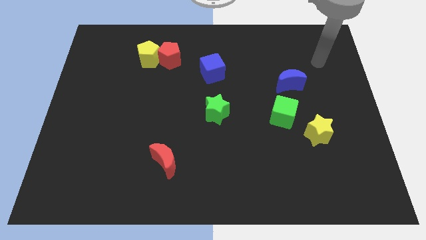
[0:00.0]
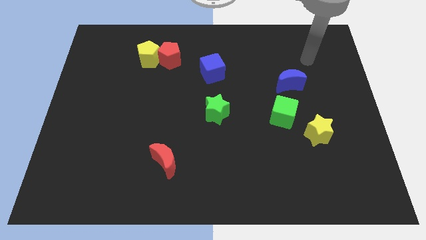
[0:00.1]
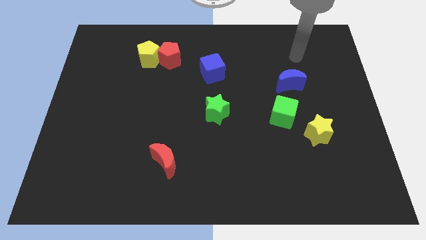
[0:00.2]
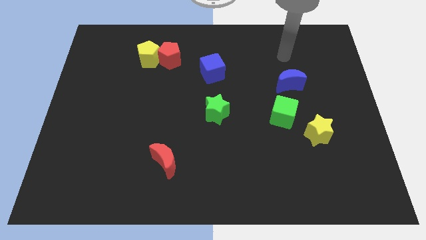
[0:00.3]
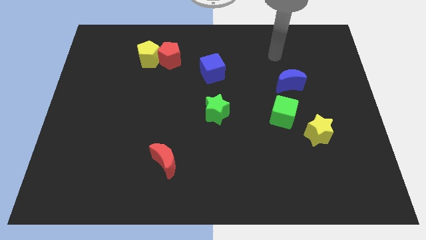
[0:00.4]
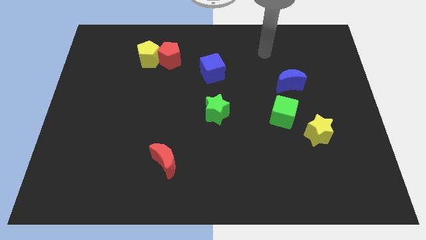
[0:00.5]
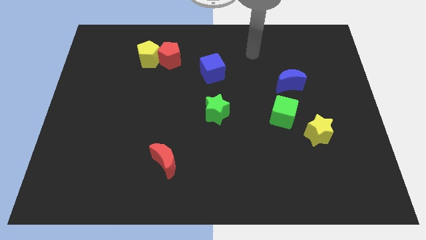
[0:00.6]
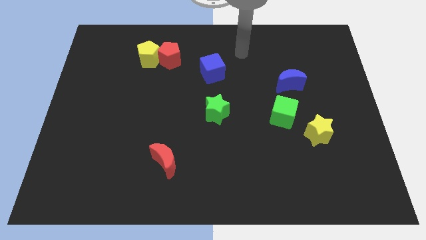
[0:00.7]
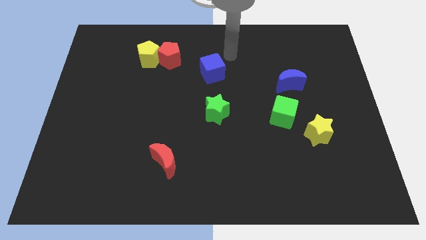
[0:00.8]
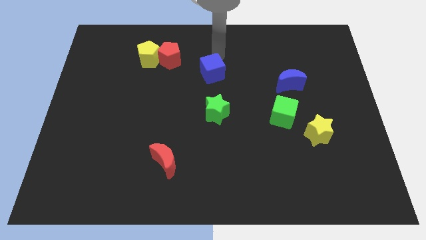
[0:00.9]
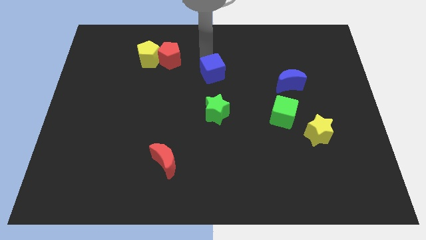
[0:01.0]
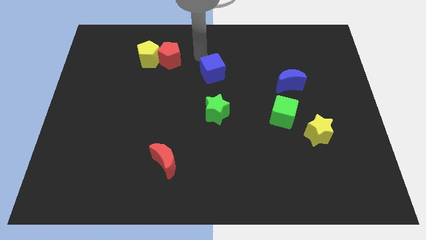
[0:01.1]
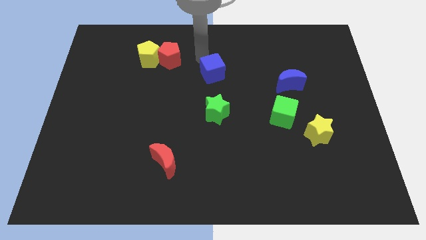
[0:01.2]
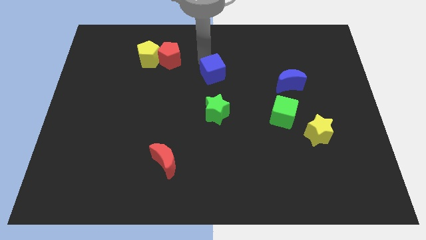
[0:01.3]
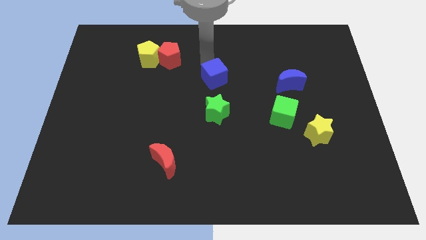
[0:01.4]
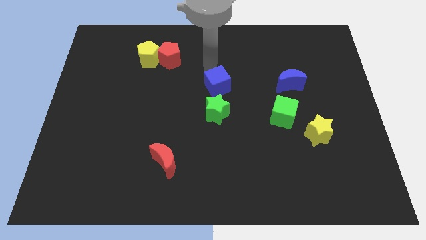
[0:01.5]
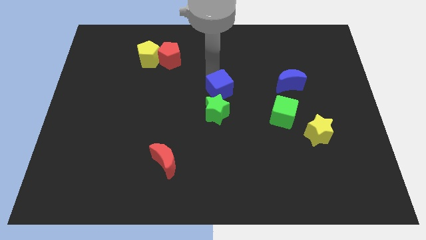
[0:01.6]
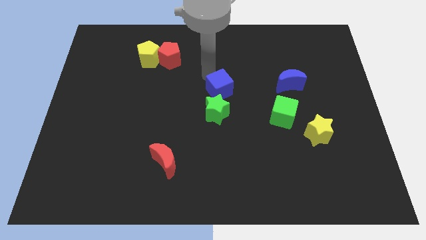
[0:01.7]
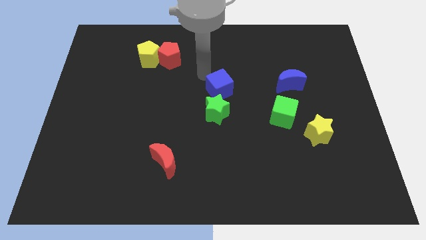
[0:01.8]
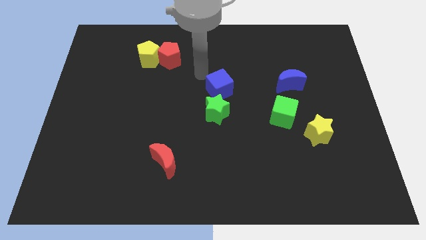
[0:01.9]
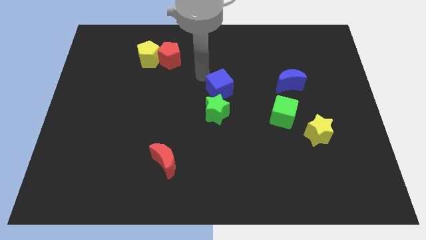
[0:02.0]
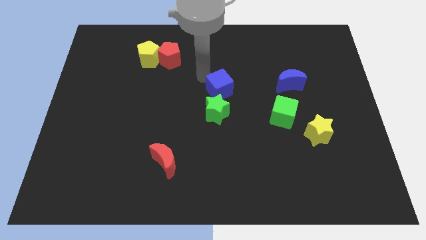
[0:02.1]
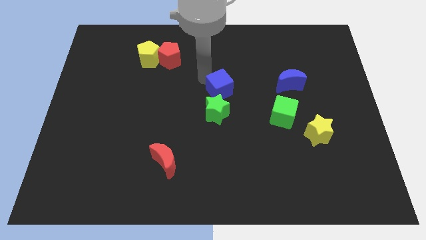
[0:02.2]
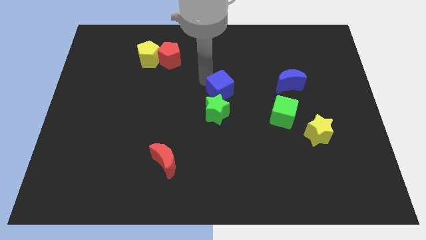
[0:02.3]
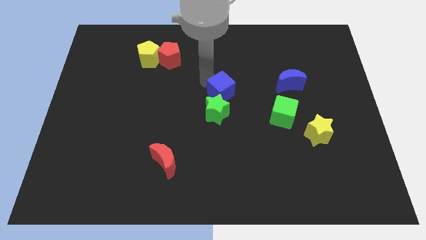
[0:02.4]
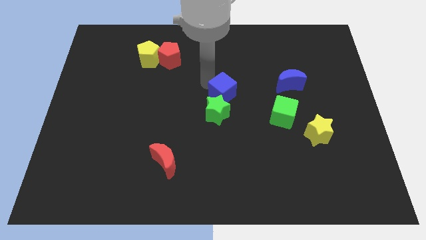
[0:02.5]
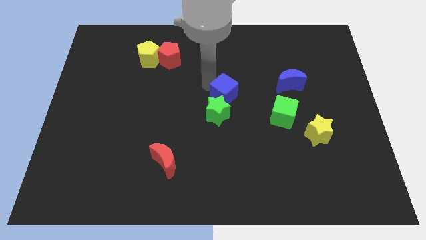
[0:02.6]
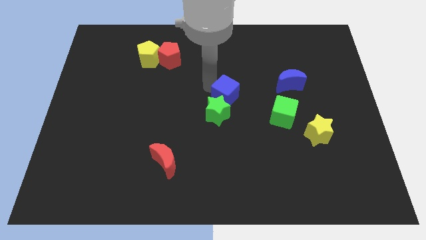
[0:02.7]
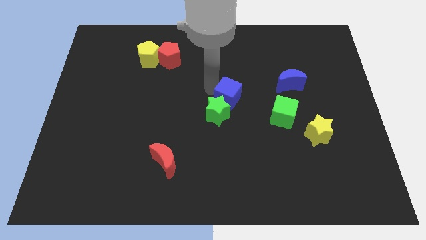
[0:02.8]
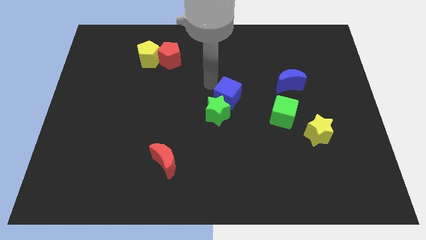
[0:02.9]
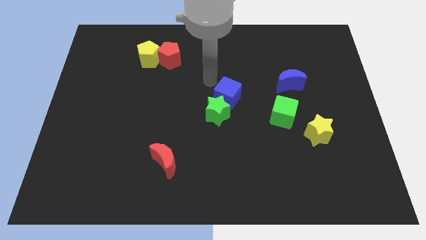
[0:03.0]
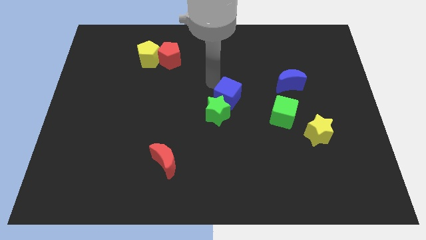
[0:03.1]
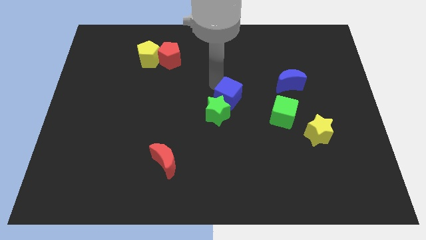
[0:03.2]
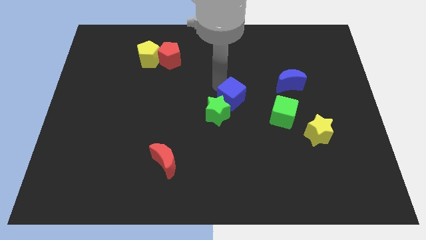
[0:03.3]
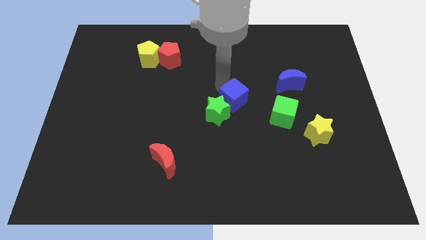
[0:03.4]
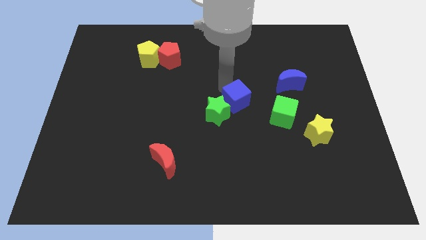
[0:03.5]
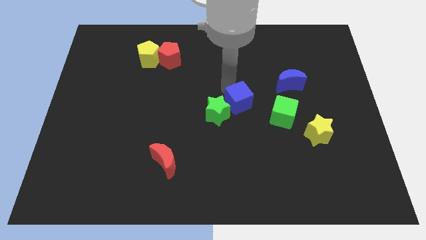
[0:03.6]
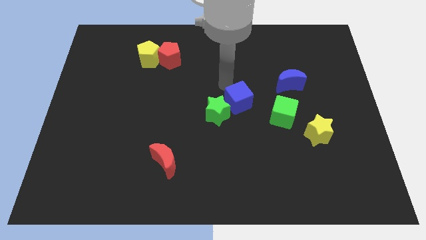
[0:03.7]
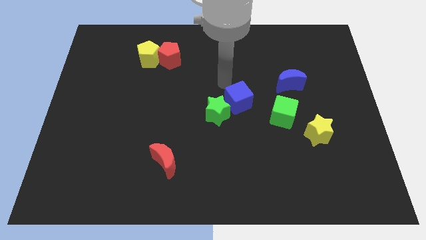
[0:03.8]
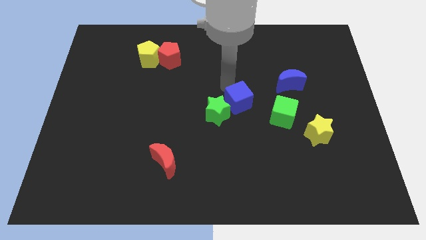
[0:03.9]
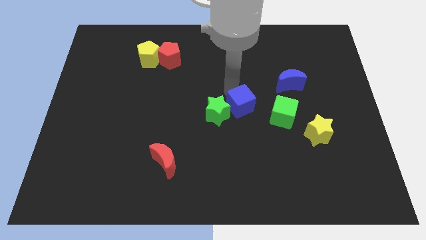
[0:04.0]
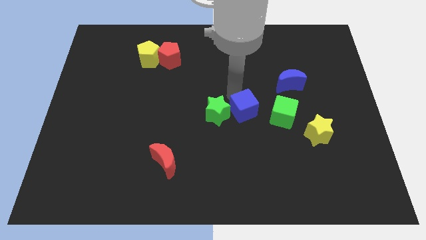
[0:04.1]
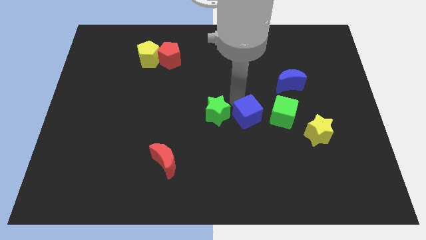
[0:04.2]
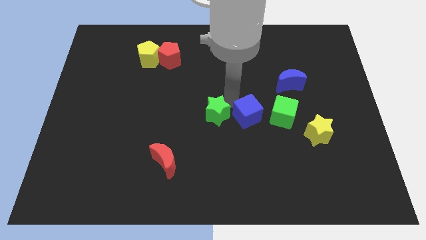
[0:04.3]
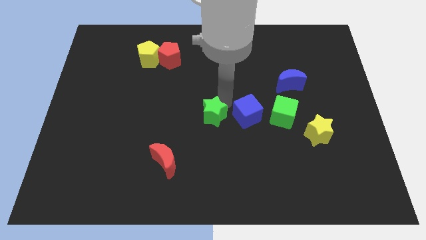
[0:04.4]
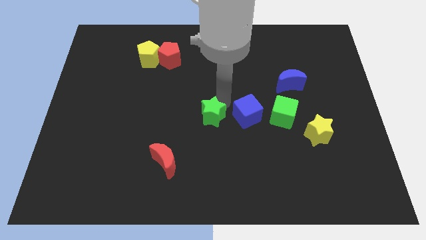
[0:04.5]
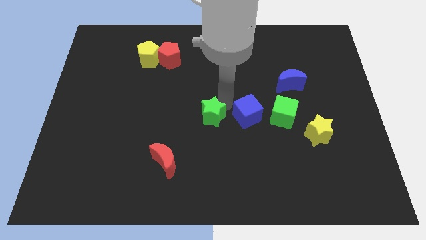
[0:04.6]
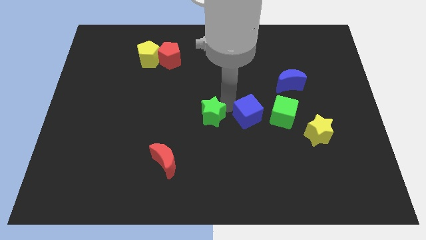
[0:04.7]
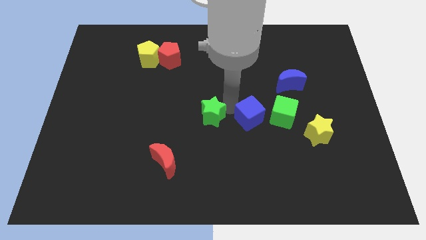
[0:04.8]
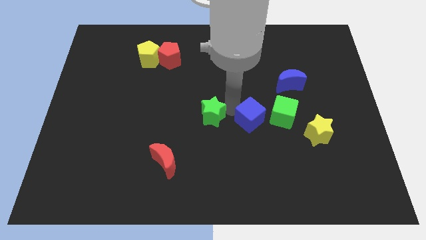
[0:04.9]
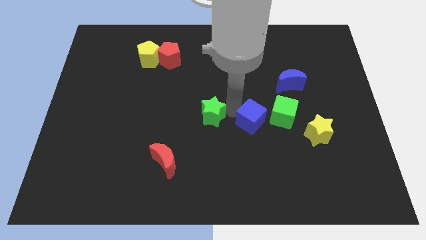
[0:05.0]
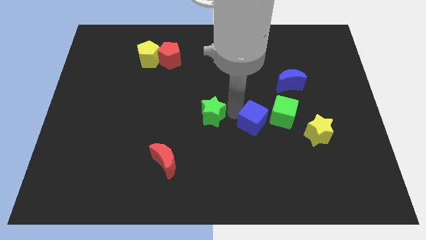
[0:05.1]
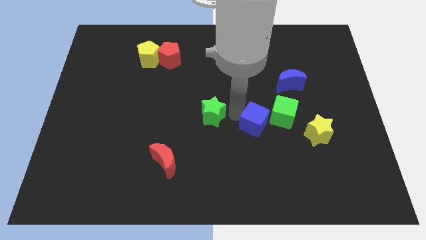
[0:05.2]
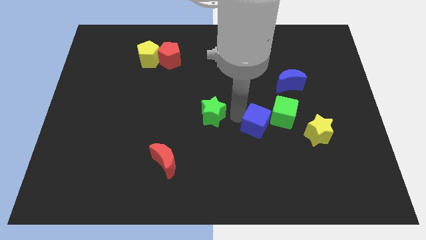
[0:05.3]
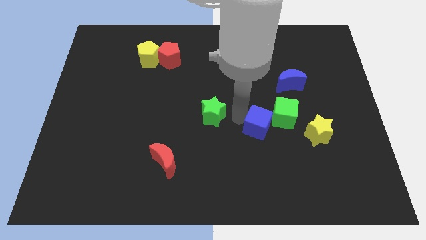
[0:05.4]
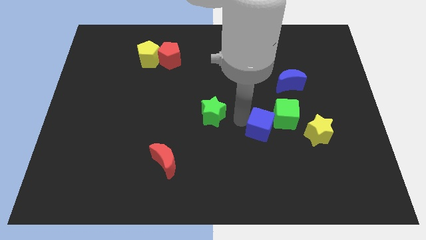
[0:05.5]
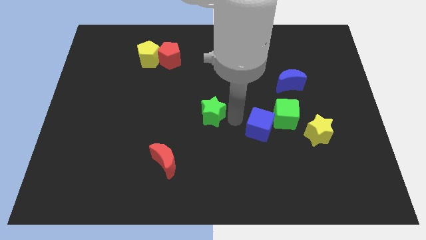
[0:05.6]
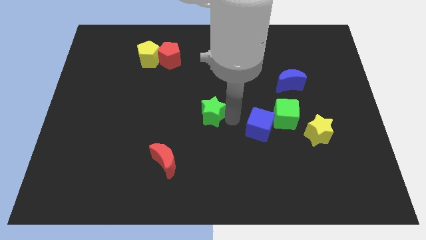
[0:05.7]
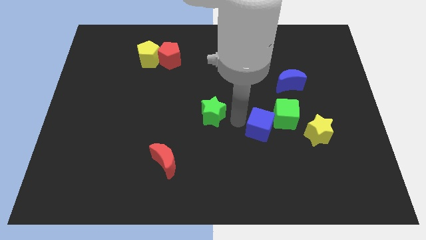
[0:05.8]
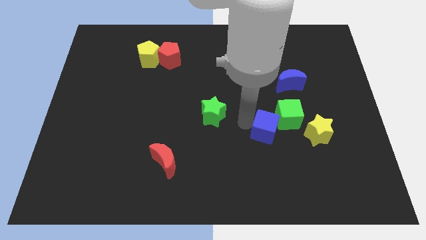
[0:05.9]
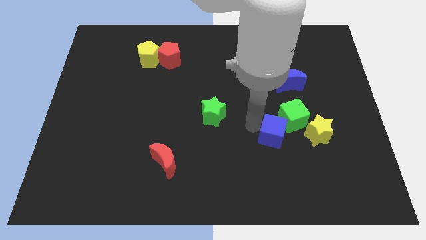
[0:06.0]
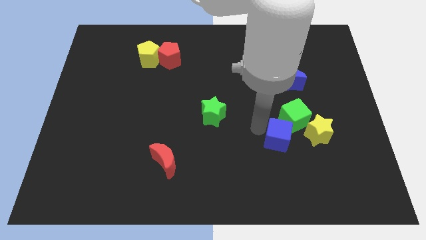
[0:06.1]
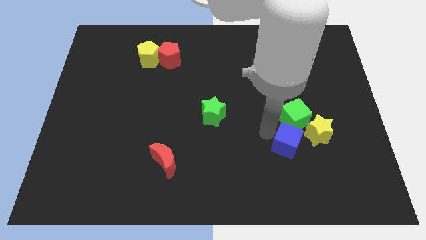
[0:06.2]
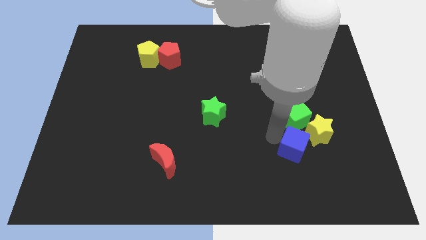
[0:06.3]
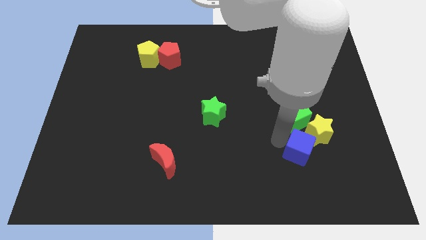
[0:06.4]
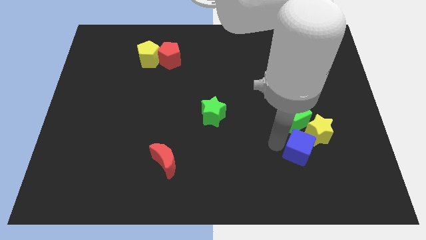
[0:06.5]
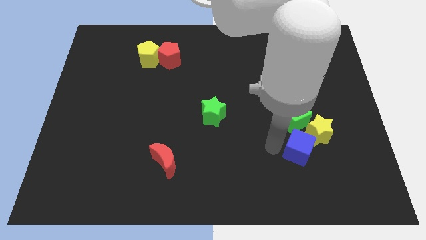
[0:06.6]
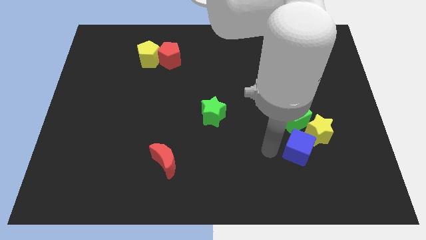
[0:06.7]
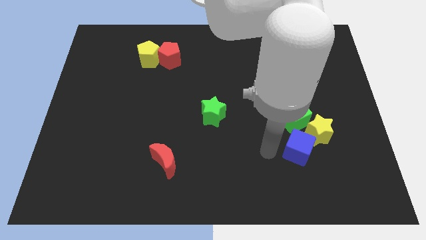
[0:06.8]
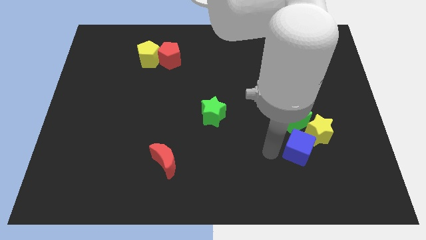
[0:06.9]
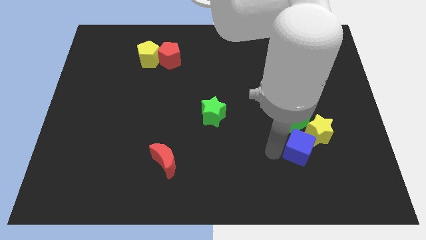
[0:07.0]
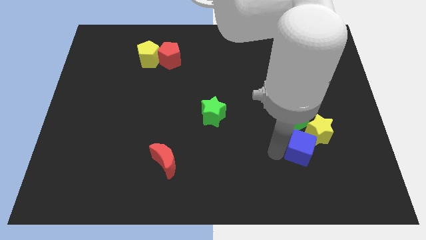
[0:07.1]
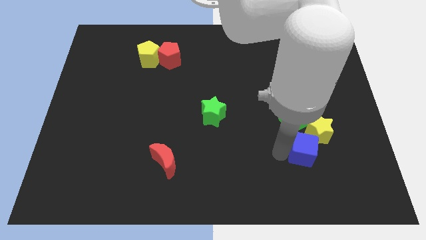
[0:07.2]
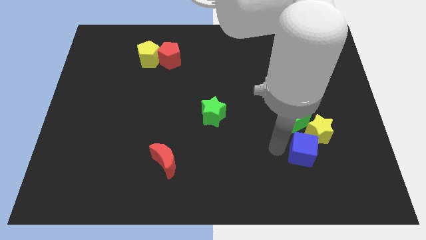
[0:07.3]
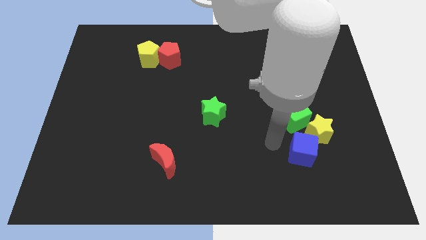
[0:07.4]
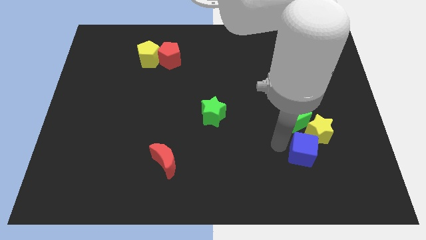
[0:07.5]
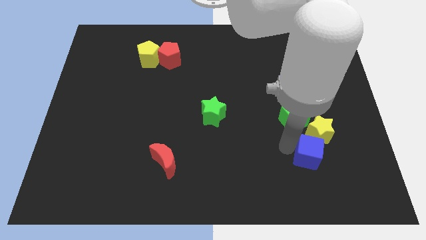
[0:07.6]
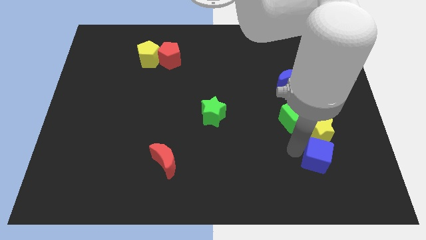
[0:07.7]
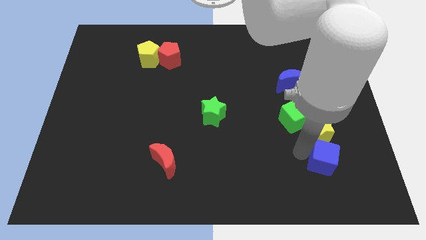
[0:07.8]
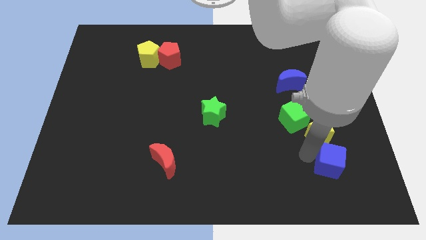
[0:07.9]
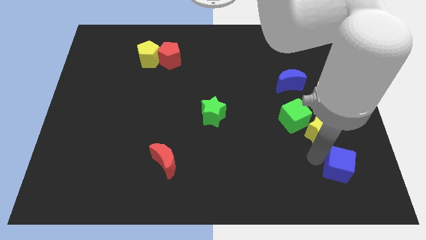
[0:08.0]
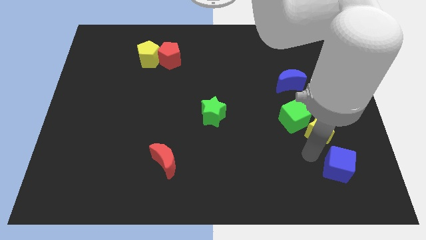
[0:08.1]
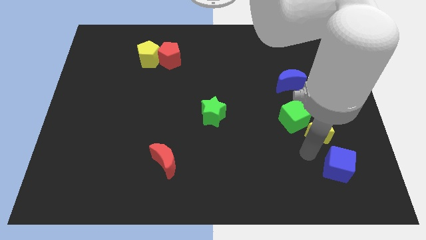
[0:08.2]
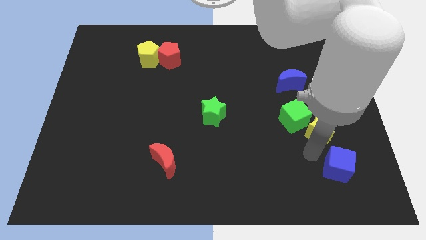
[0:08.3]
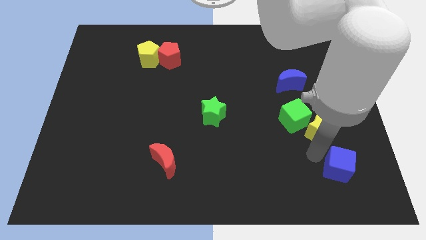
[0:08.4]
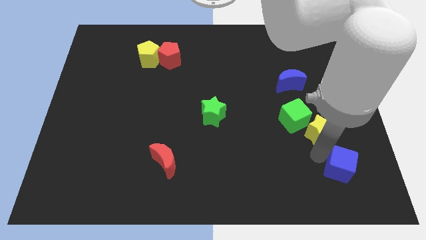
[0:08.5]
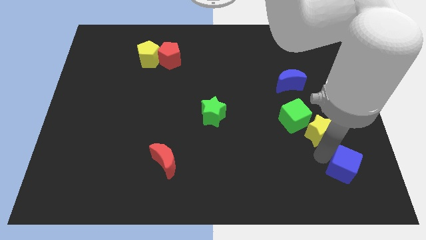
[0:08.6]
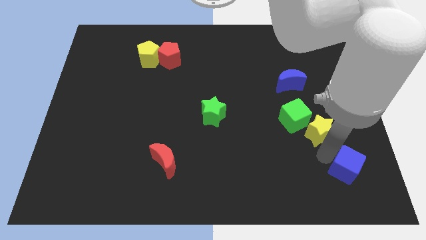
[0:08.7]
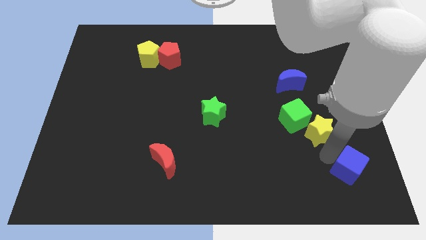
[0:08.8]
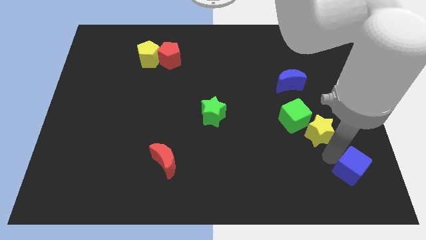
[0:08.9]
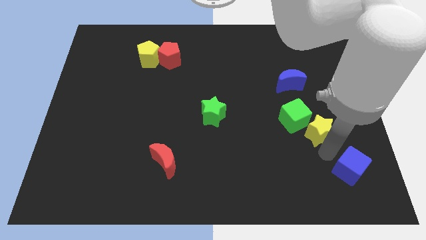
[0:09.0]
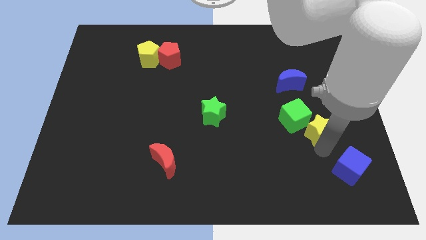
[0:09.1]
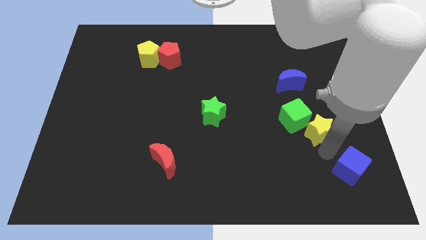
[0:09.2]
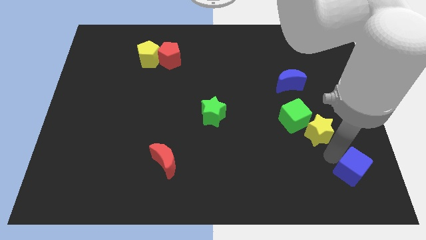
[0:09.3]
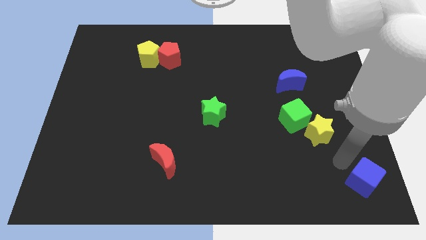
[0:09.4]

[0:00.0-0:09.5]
push the blue cube to the bottom right corner
